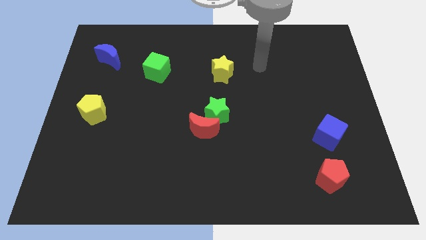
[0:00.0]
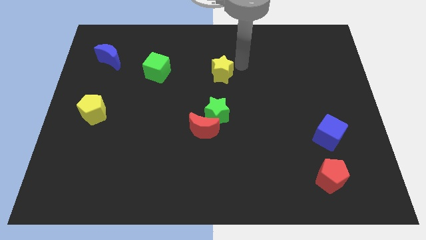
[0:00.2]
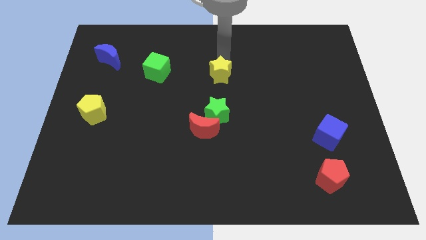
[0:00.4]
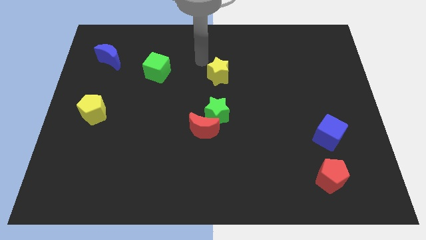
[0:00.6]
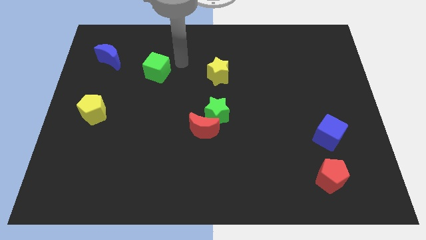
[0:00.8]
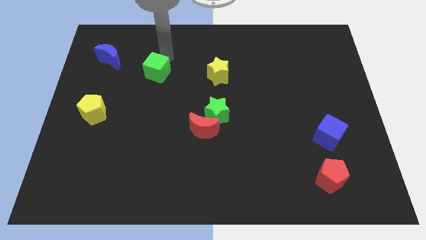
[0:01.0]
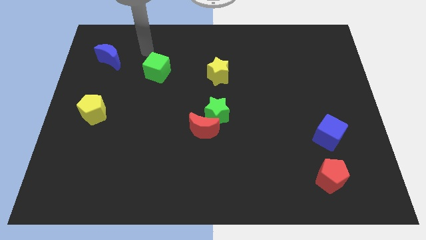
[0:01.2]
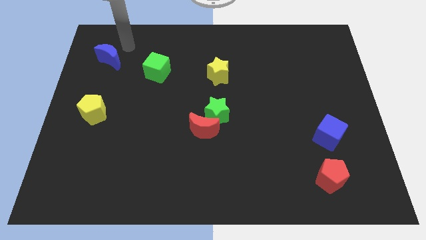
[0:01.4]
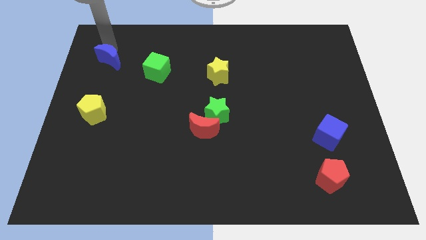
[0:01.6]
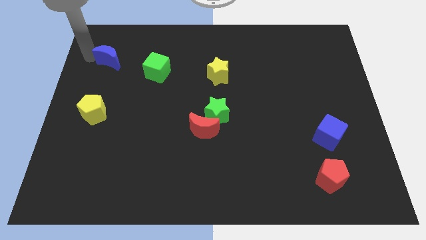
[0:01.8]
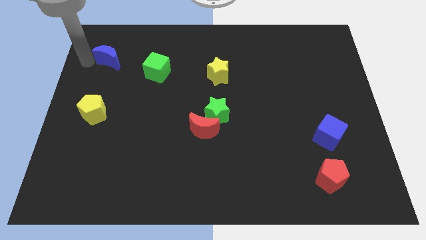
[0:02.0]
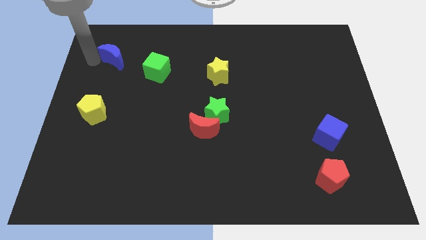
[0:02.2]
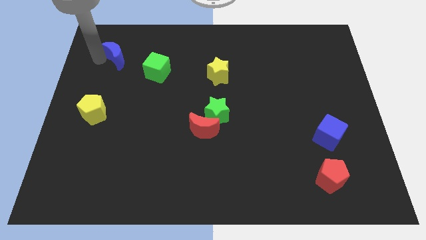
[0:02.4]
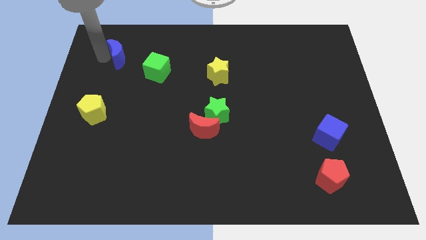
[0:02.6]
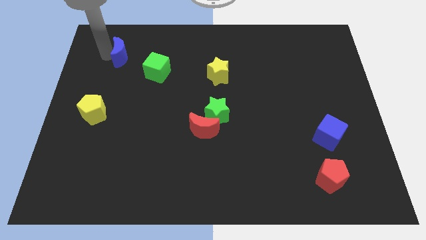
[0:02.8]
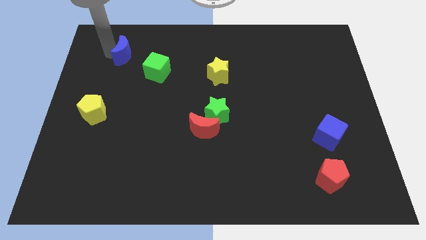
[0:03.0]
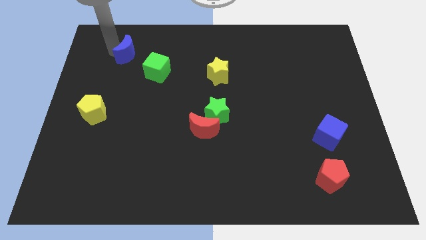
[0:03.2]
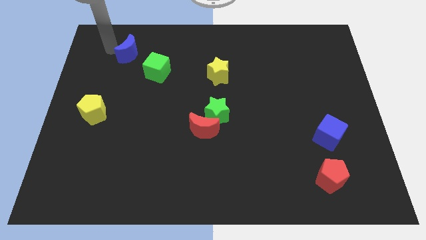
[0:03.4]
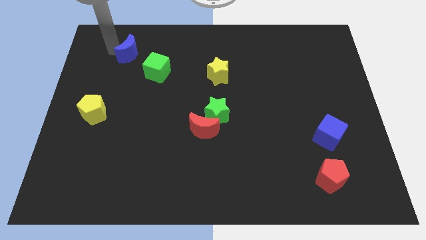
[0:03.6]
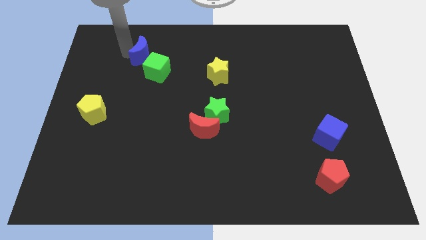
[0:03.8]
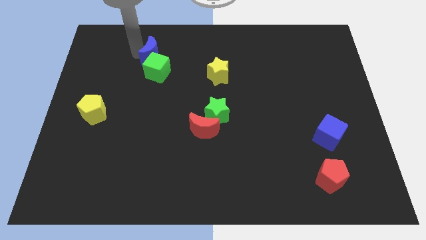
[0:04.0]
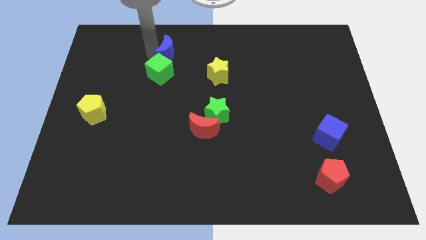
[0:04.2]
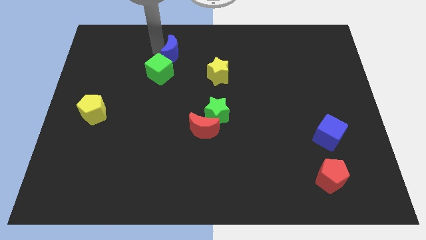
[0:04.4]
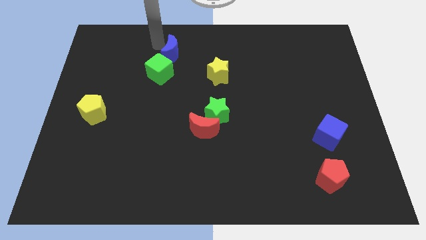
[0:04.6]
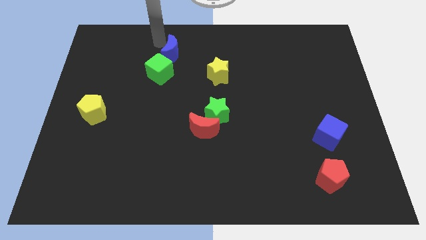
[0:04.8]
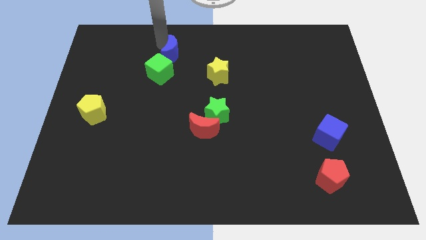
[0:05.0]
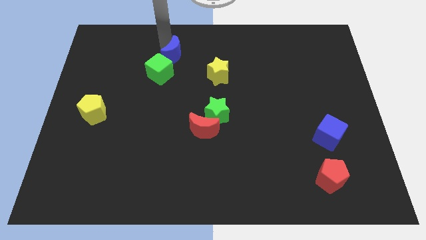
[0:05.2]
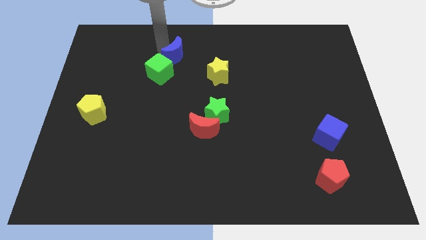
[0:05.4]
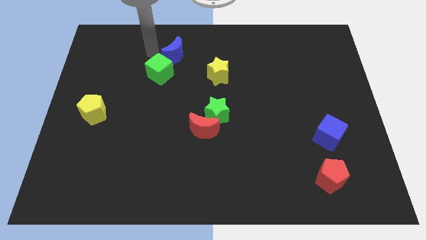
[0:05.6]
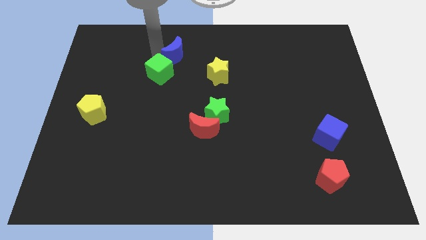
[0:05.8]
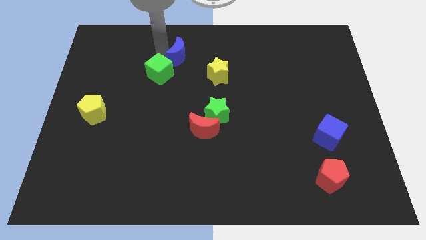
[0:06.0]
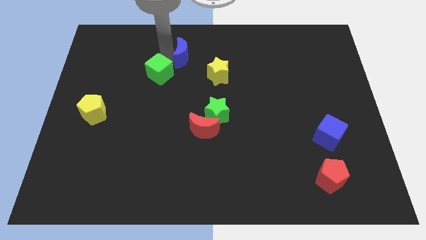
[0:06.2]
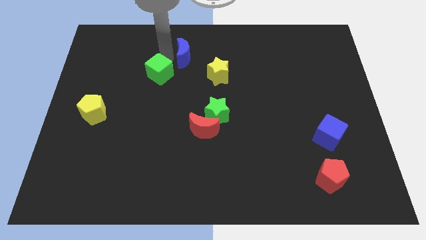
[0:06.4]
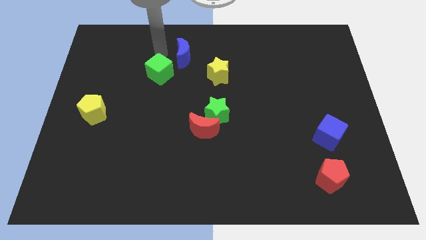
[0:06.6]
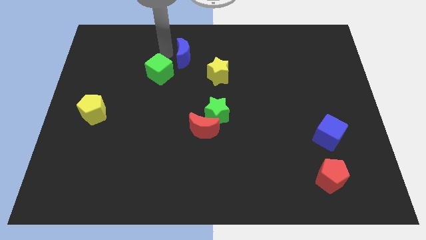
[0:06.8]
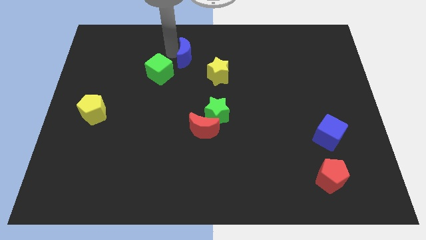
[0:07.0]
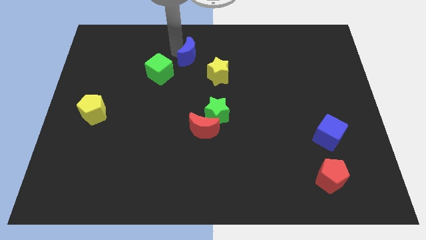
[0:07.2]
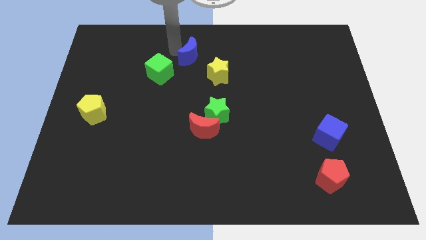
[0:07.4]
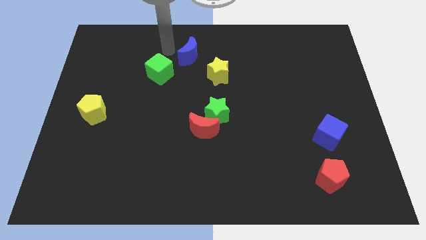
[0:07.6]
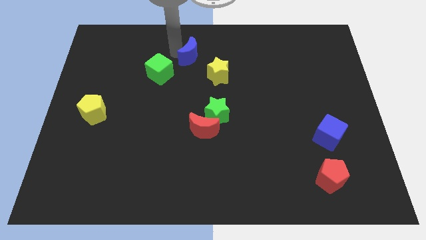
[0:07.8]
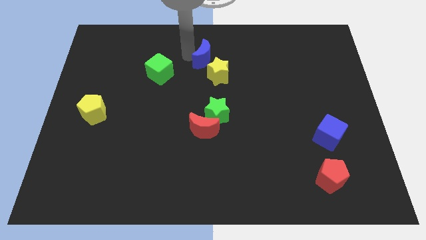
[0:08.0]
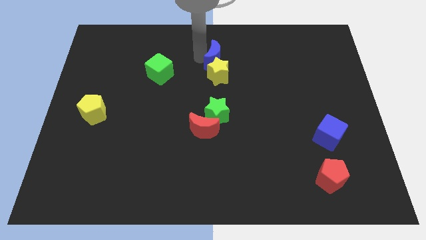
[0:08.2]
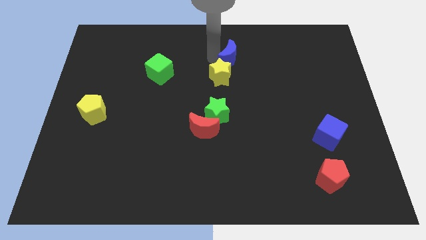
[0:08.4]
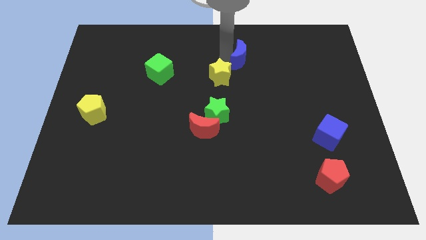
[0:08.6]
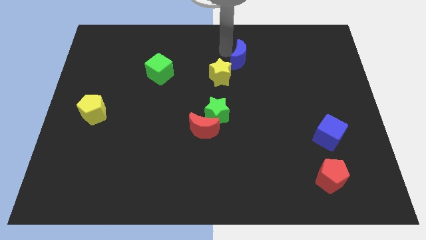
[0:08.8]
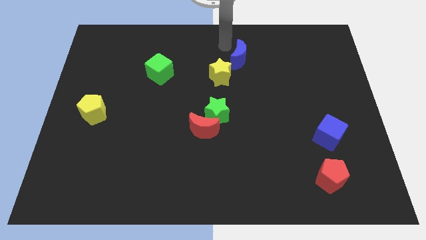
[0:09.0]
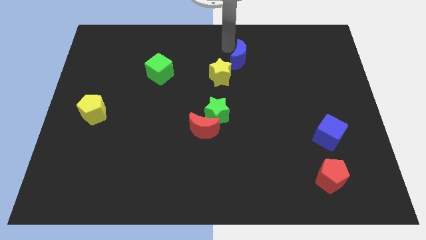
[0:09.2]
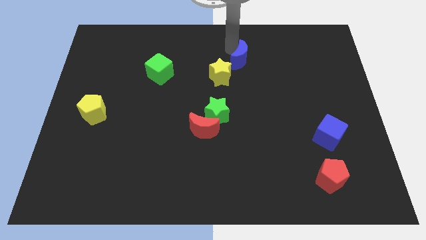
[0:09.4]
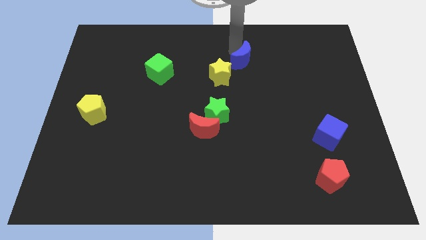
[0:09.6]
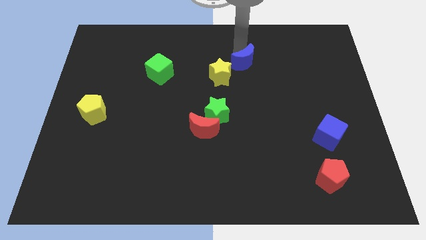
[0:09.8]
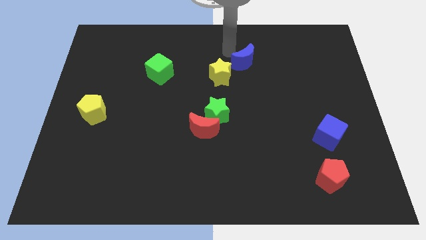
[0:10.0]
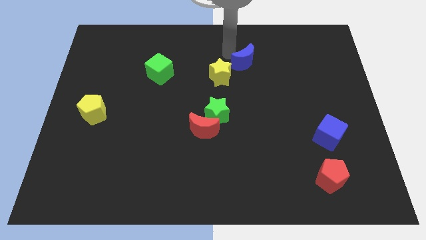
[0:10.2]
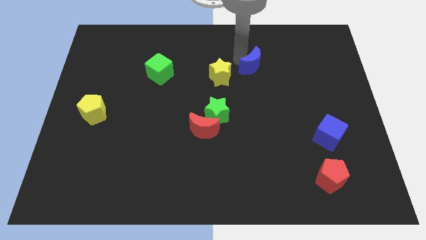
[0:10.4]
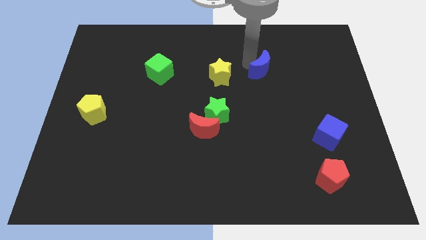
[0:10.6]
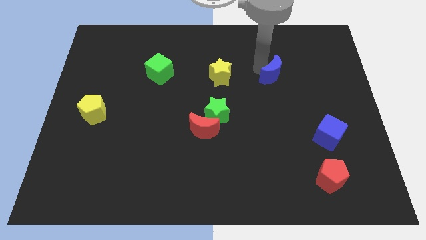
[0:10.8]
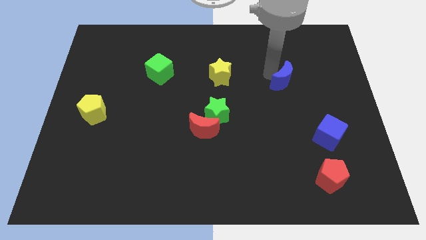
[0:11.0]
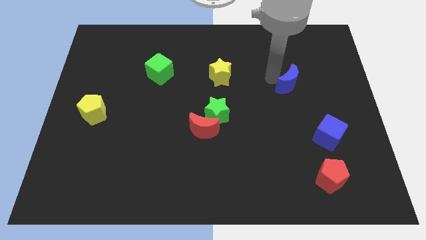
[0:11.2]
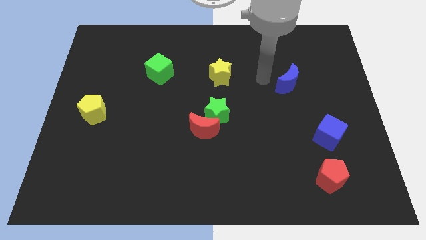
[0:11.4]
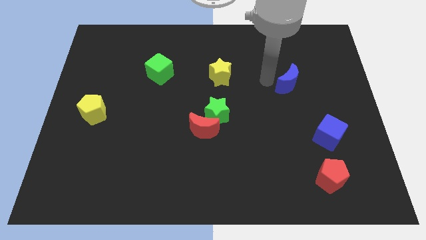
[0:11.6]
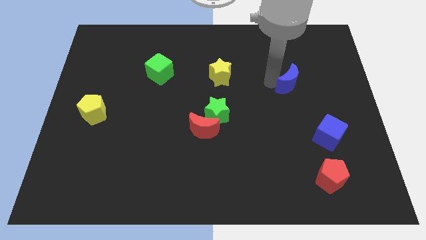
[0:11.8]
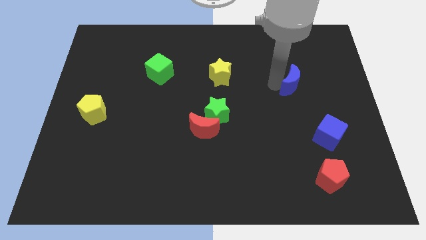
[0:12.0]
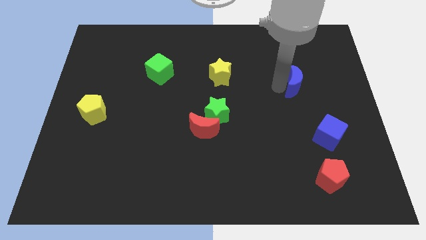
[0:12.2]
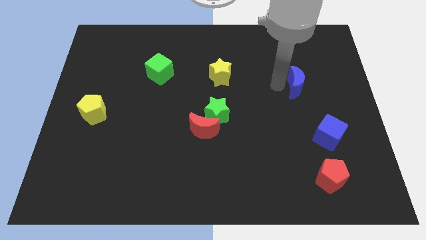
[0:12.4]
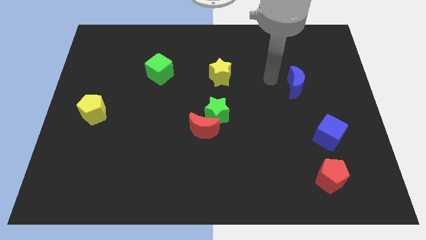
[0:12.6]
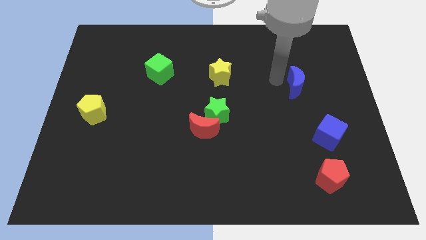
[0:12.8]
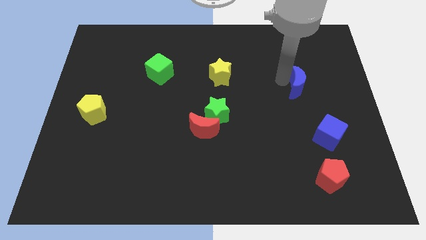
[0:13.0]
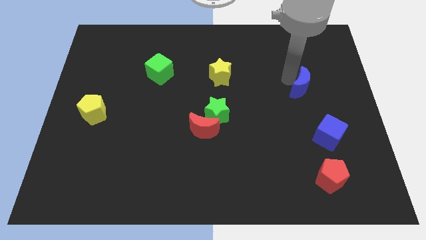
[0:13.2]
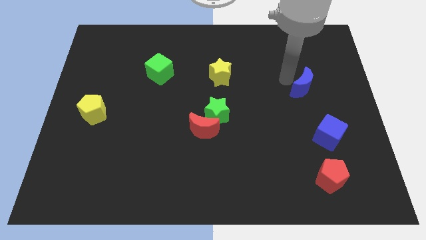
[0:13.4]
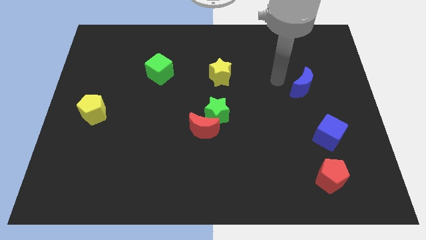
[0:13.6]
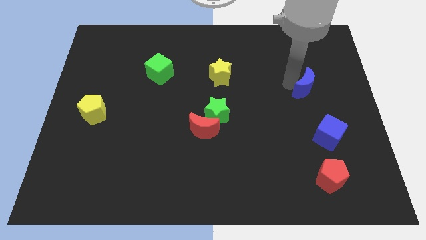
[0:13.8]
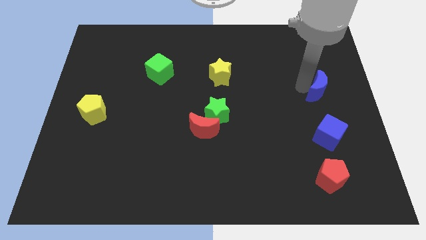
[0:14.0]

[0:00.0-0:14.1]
slide the blue moon to the right side of the board
